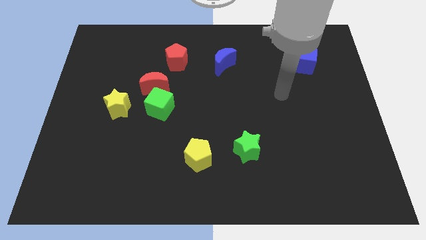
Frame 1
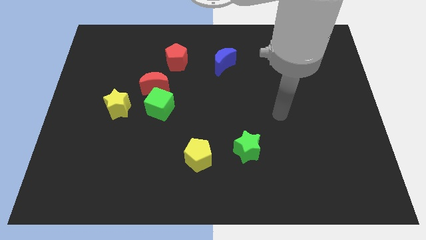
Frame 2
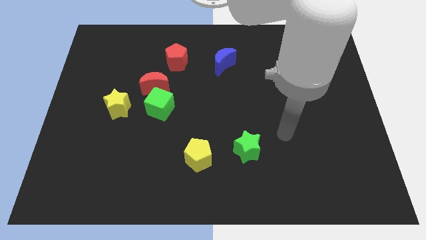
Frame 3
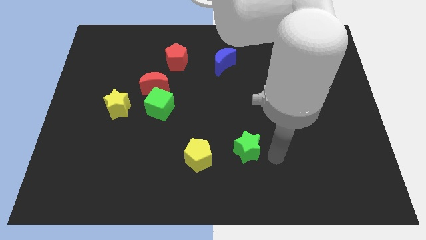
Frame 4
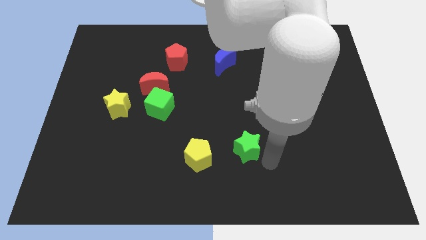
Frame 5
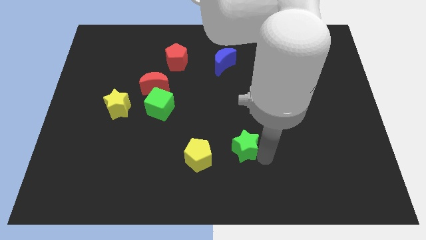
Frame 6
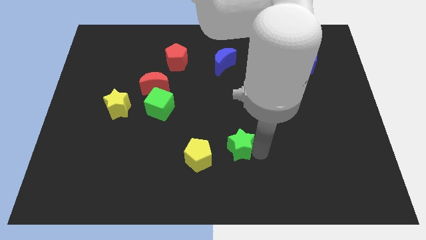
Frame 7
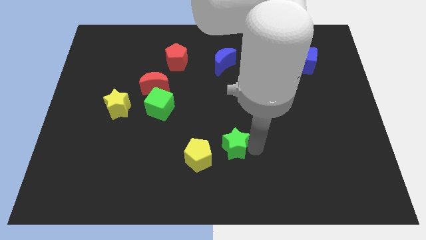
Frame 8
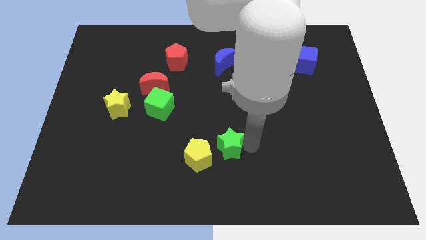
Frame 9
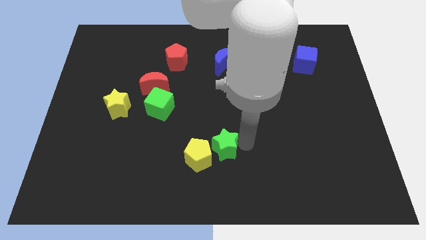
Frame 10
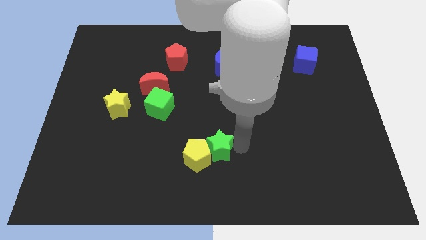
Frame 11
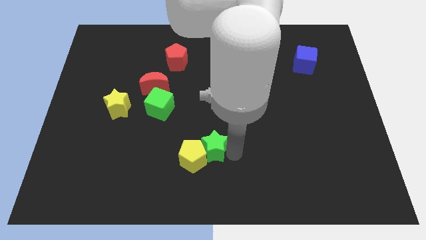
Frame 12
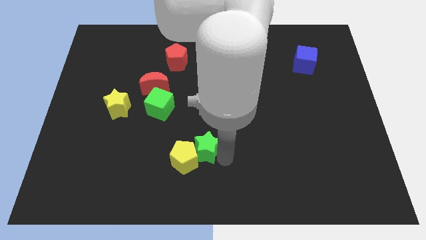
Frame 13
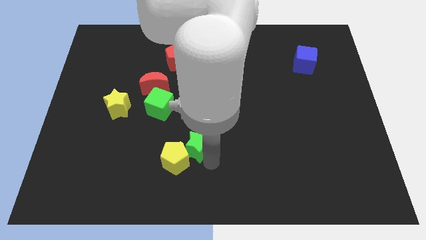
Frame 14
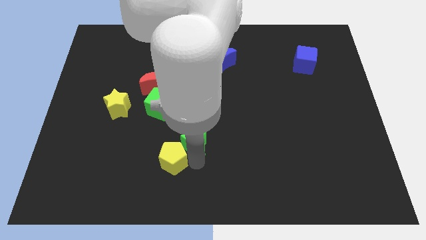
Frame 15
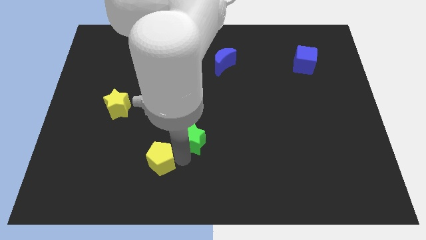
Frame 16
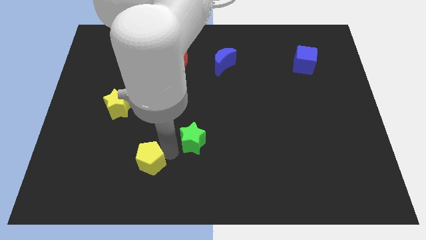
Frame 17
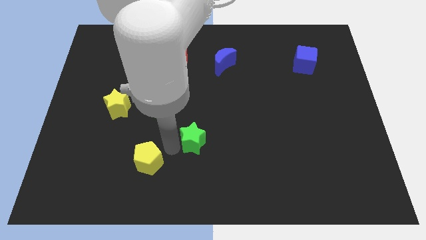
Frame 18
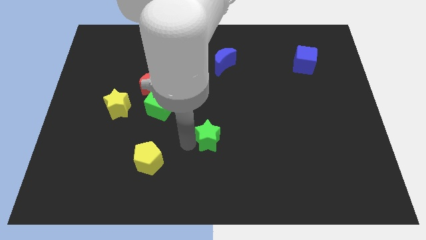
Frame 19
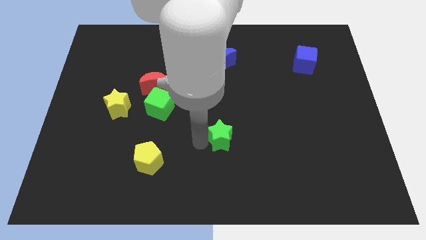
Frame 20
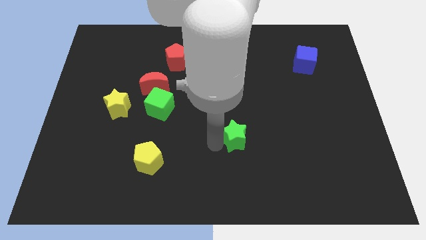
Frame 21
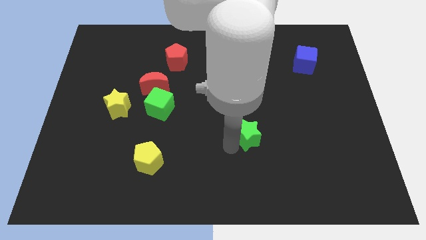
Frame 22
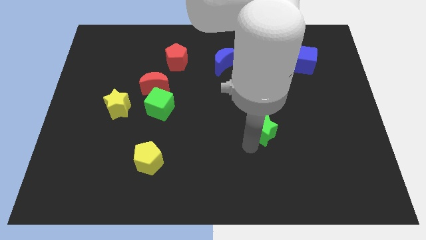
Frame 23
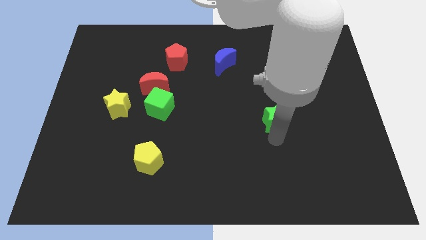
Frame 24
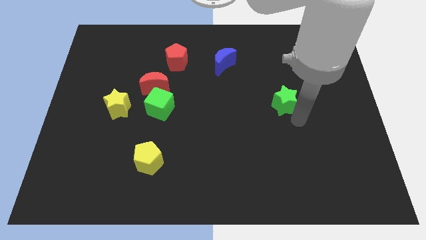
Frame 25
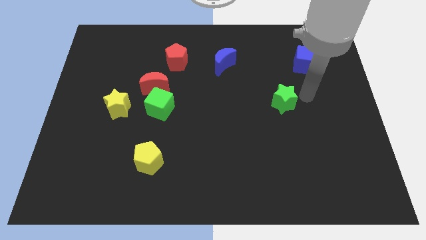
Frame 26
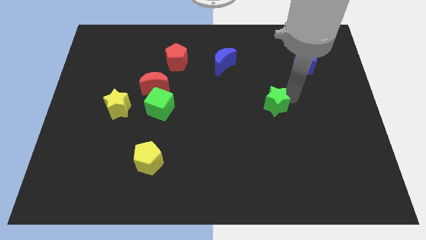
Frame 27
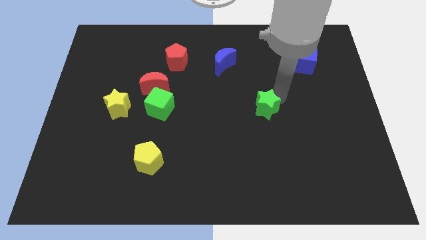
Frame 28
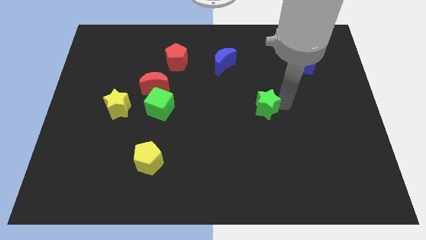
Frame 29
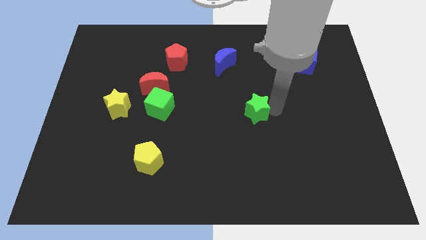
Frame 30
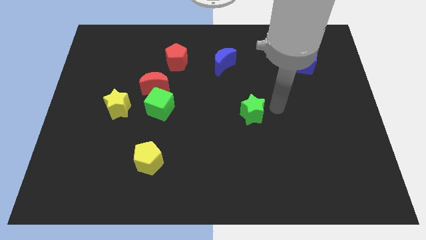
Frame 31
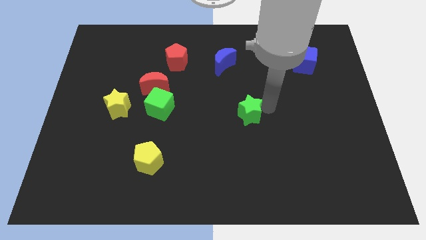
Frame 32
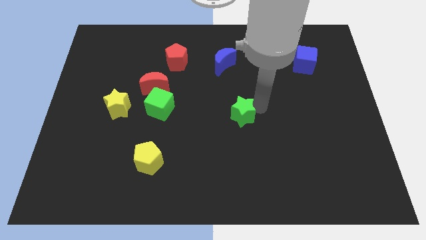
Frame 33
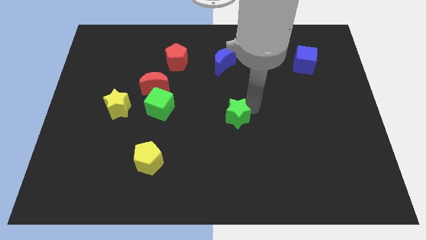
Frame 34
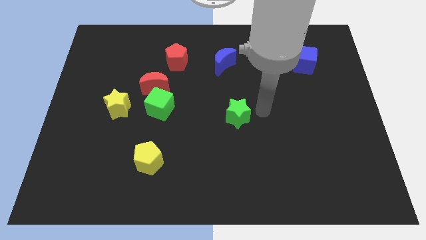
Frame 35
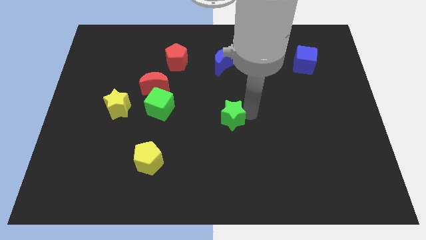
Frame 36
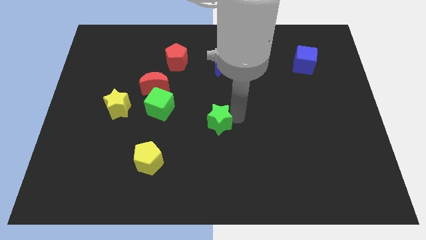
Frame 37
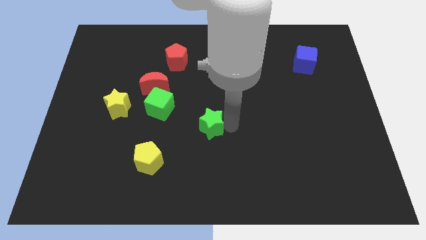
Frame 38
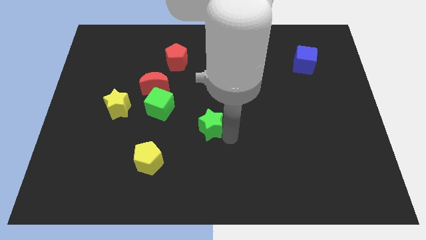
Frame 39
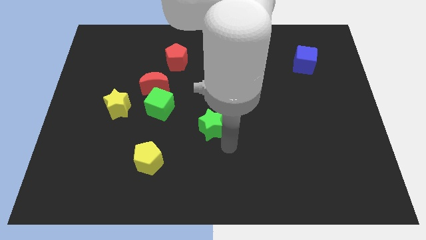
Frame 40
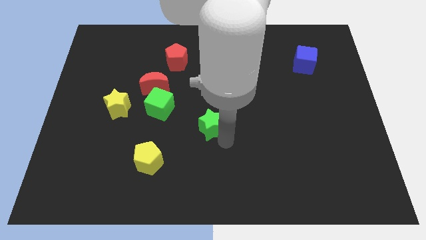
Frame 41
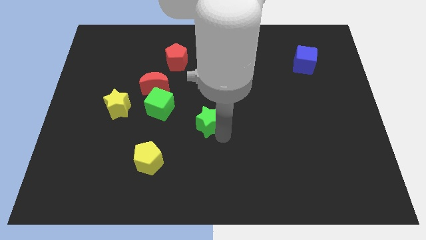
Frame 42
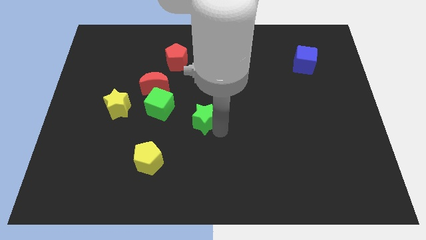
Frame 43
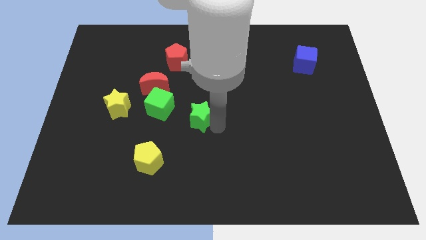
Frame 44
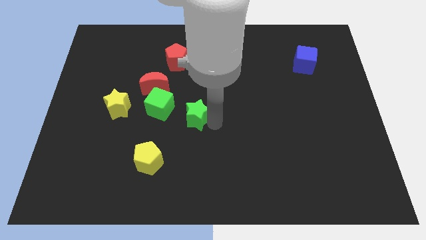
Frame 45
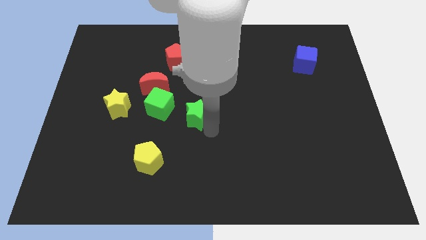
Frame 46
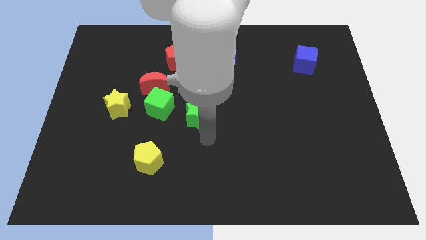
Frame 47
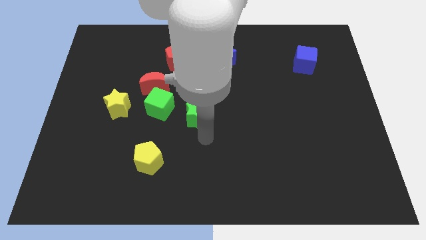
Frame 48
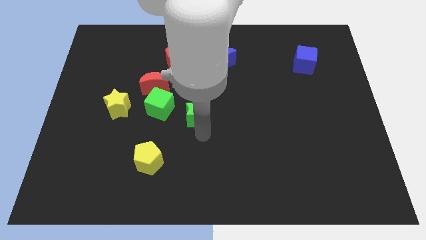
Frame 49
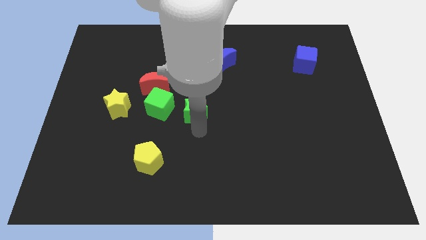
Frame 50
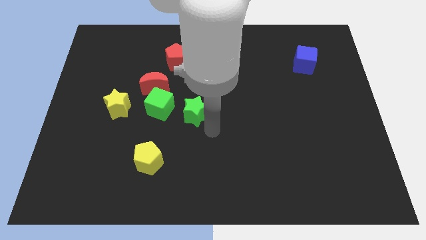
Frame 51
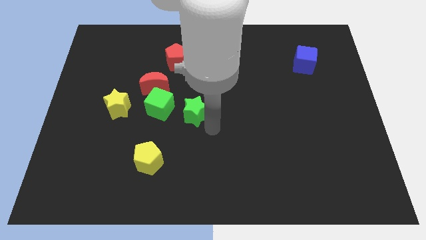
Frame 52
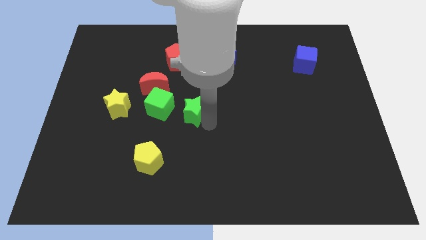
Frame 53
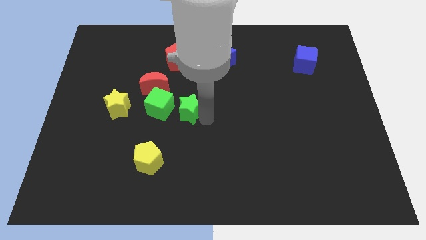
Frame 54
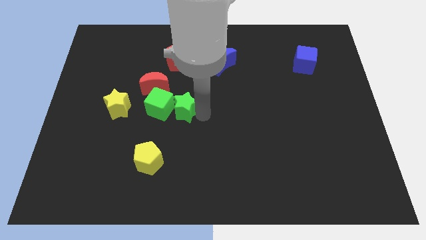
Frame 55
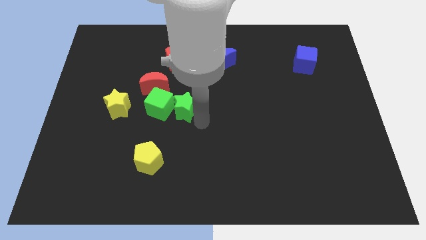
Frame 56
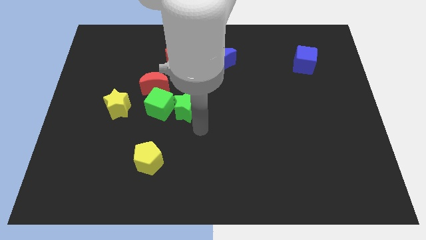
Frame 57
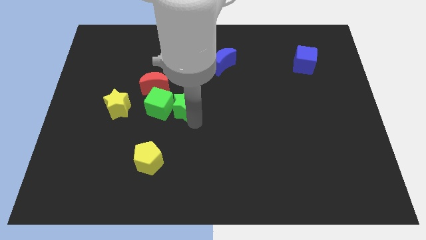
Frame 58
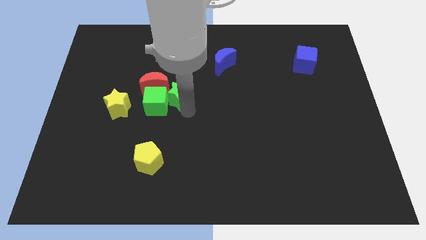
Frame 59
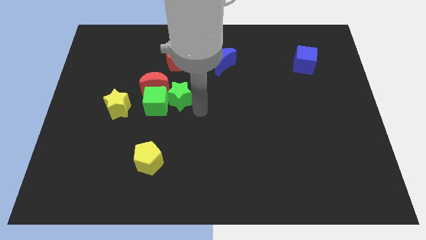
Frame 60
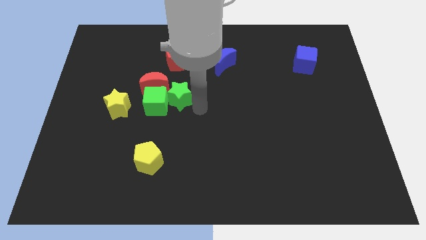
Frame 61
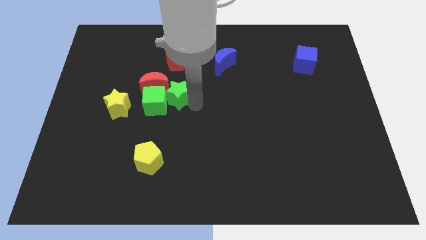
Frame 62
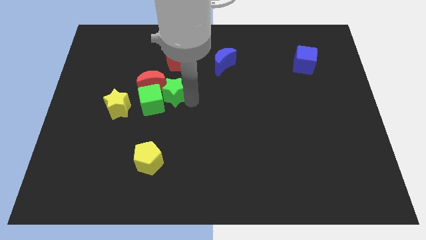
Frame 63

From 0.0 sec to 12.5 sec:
push the green star next to the red moon
